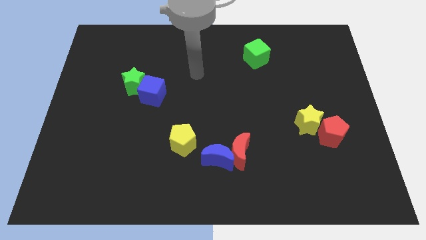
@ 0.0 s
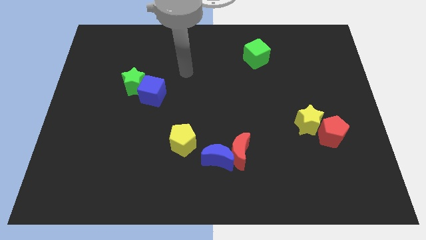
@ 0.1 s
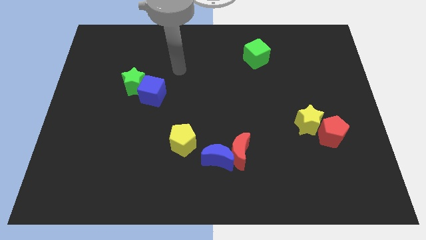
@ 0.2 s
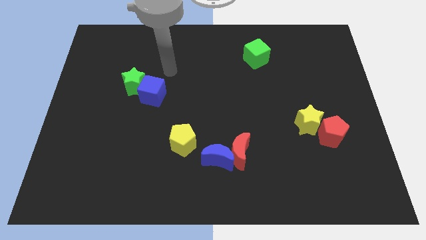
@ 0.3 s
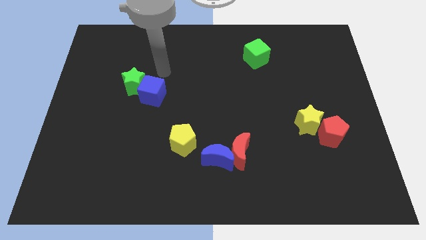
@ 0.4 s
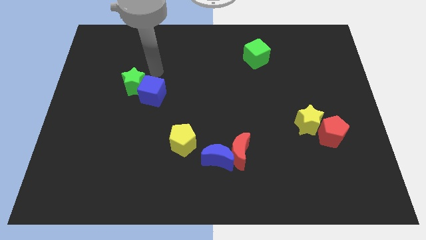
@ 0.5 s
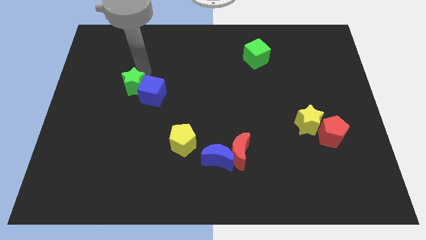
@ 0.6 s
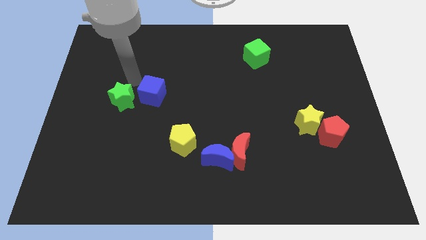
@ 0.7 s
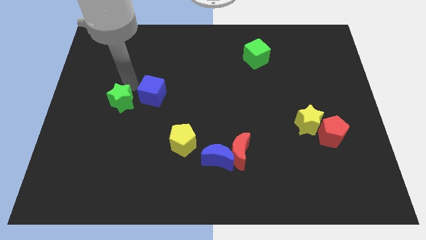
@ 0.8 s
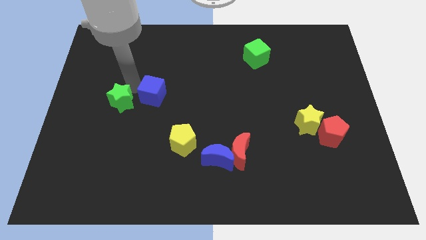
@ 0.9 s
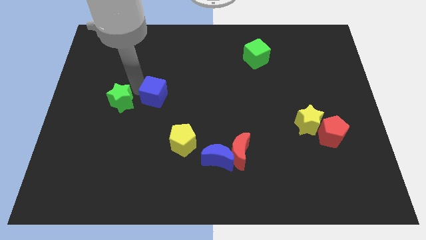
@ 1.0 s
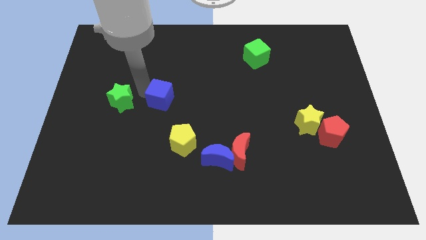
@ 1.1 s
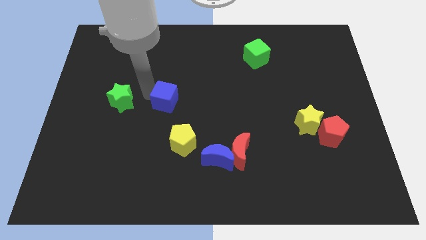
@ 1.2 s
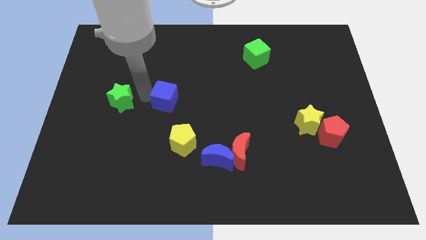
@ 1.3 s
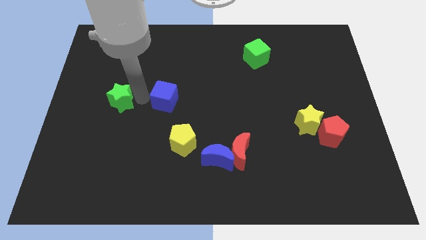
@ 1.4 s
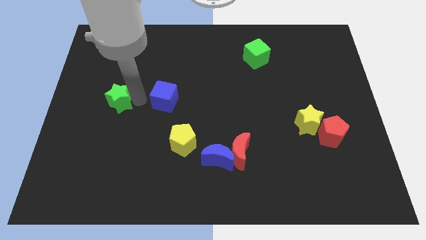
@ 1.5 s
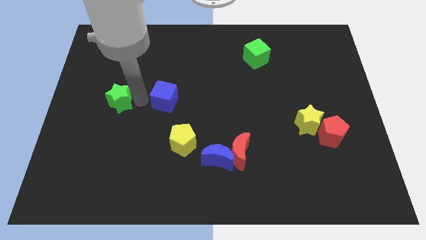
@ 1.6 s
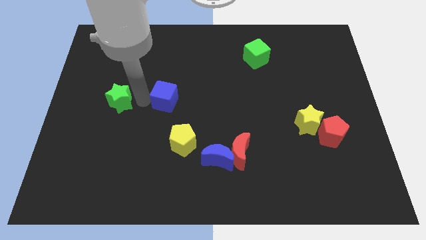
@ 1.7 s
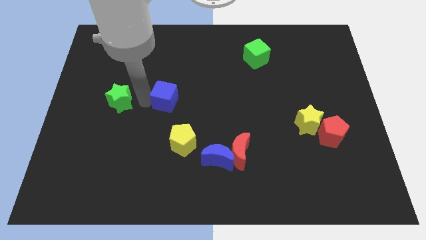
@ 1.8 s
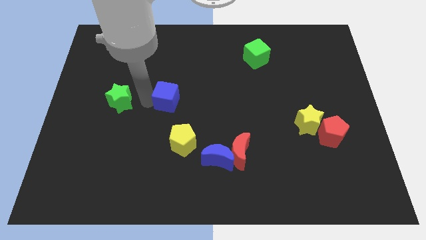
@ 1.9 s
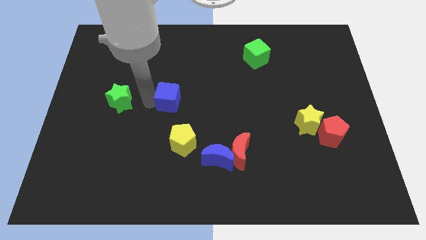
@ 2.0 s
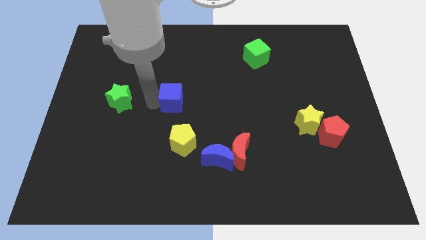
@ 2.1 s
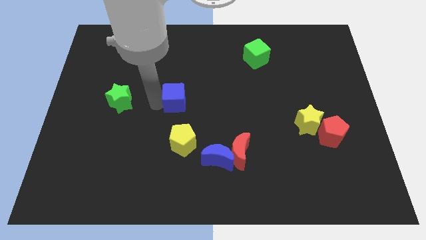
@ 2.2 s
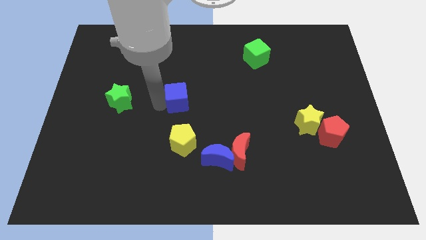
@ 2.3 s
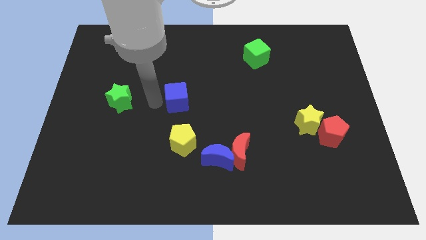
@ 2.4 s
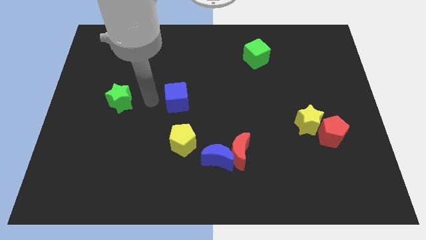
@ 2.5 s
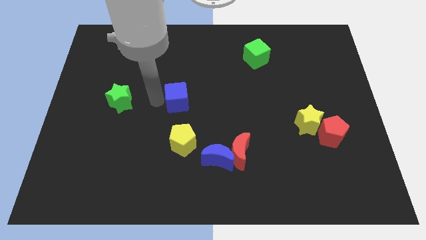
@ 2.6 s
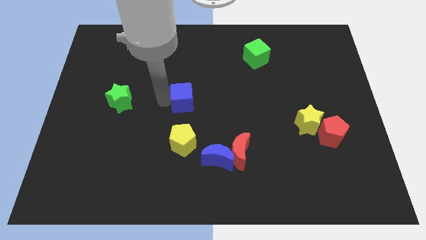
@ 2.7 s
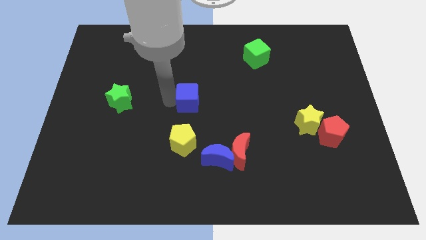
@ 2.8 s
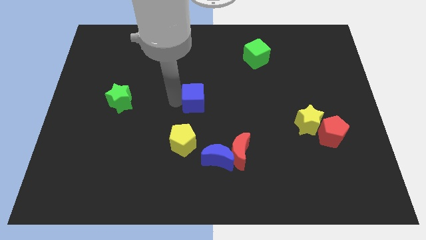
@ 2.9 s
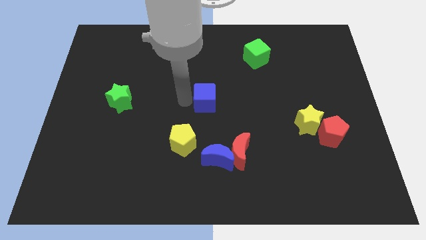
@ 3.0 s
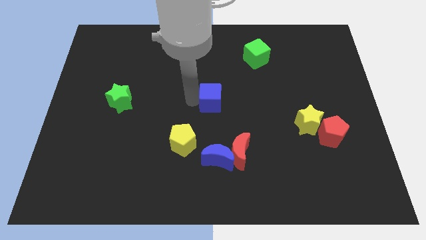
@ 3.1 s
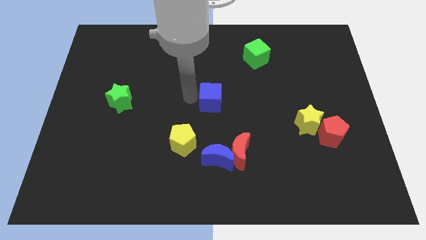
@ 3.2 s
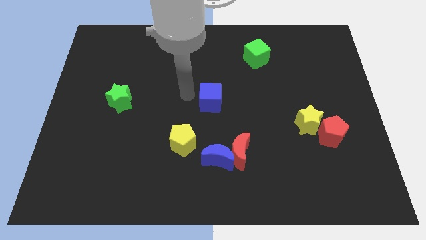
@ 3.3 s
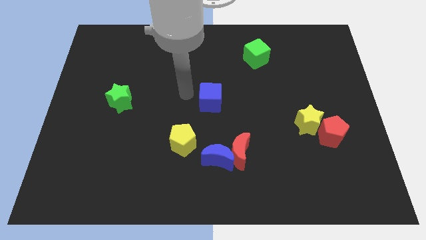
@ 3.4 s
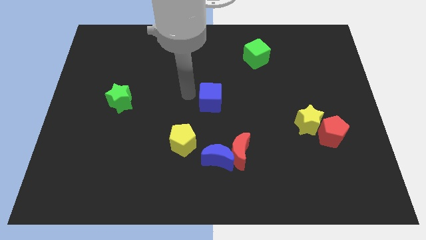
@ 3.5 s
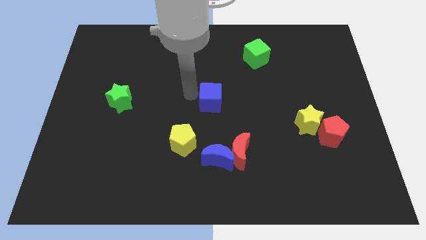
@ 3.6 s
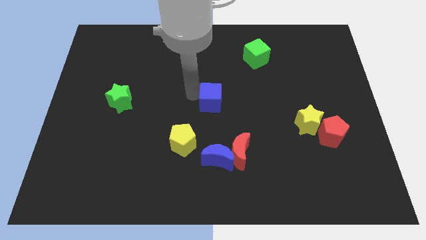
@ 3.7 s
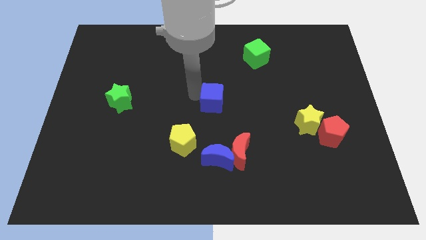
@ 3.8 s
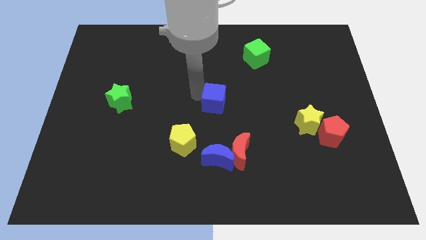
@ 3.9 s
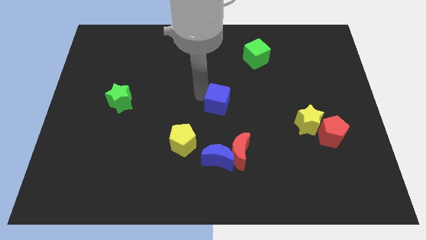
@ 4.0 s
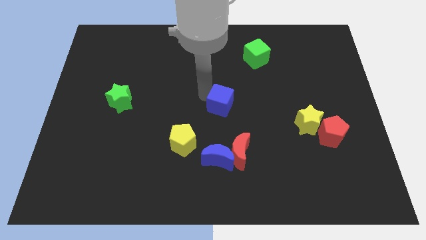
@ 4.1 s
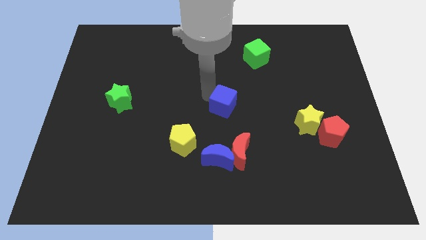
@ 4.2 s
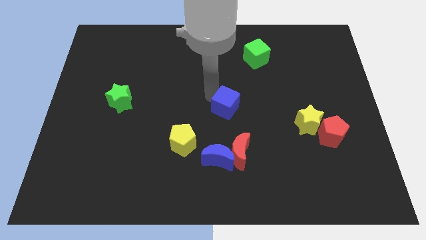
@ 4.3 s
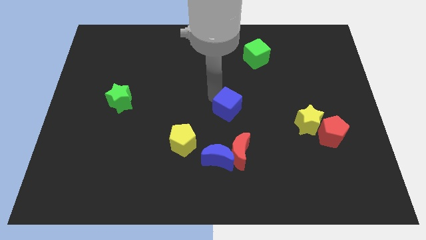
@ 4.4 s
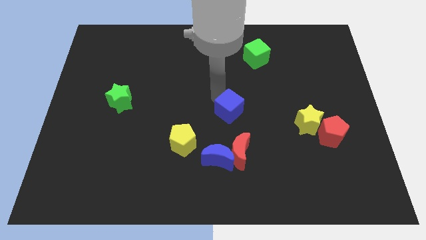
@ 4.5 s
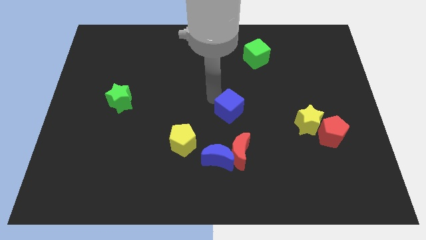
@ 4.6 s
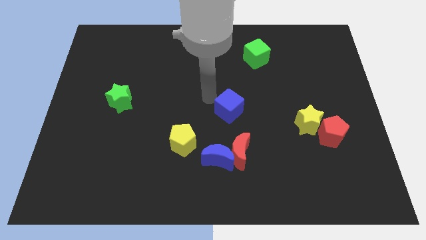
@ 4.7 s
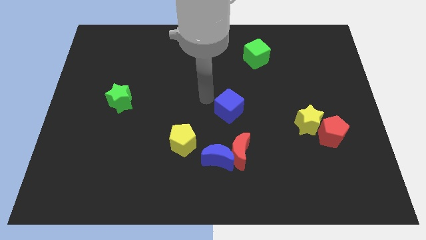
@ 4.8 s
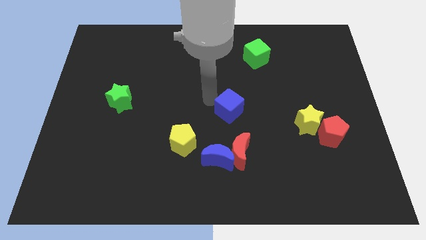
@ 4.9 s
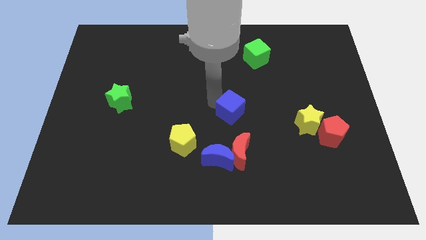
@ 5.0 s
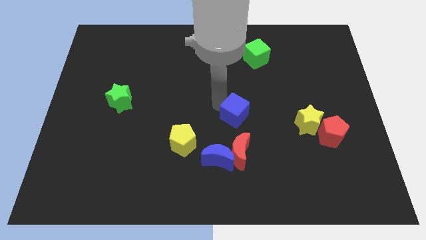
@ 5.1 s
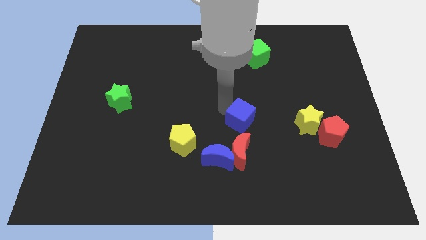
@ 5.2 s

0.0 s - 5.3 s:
push the blue cube left of the yellow star

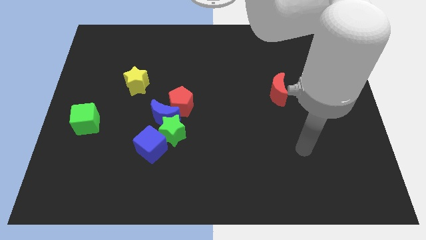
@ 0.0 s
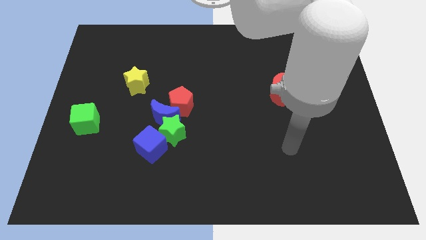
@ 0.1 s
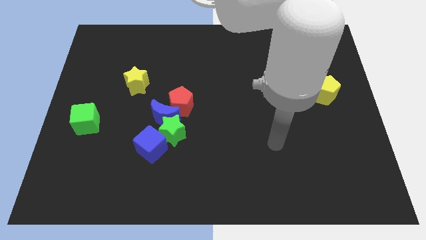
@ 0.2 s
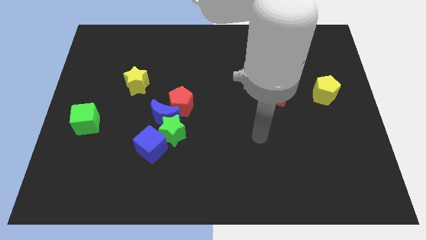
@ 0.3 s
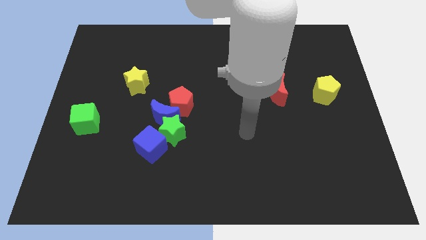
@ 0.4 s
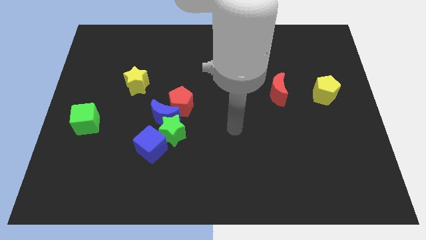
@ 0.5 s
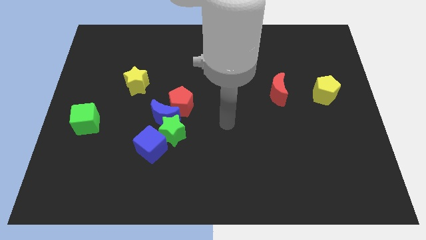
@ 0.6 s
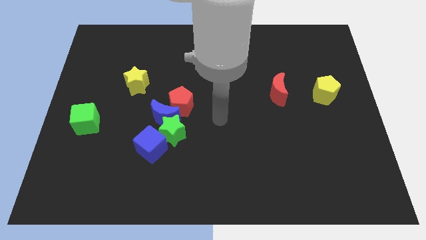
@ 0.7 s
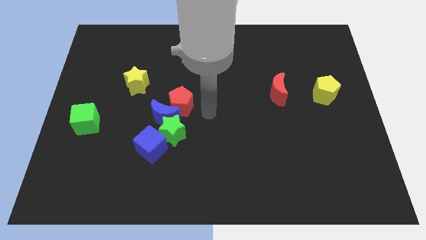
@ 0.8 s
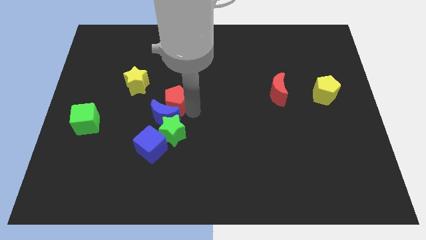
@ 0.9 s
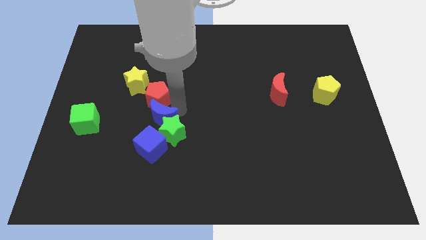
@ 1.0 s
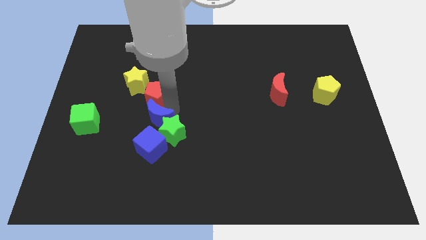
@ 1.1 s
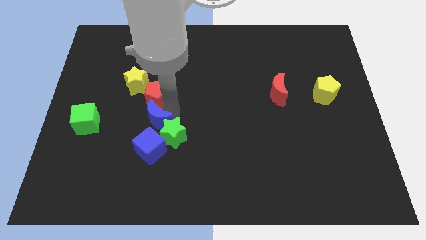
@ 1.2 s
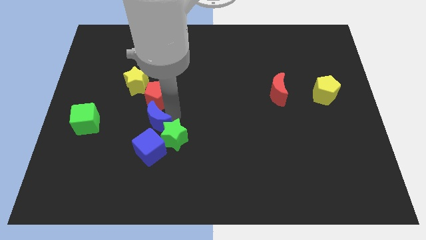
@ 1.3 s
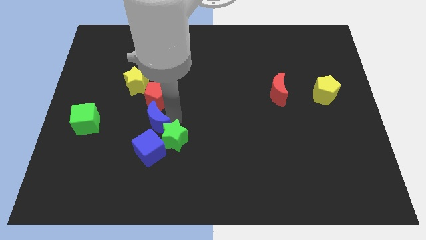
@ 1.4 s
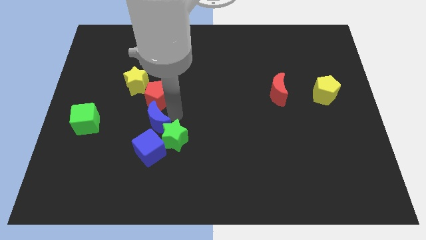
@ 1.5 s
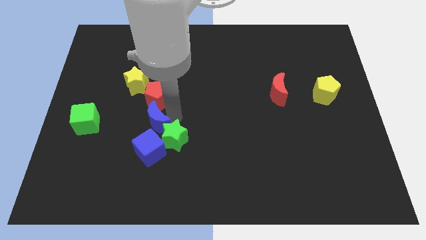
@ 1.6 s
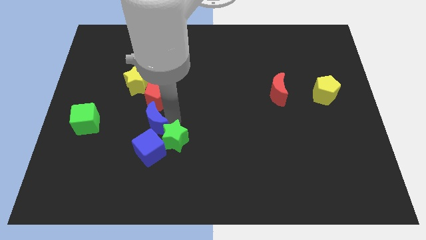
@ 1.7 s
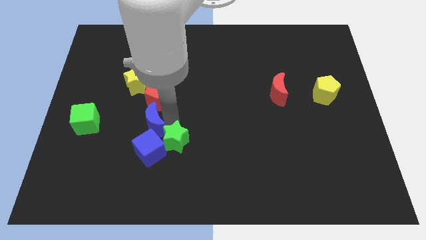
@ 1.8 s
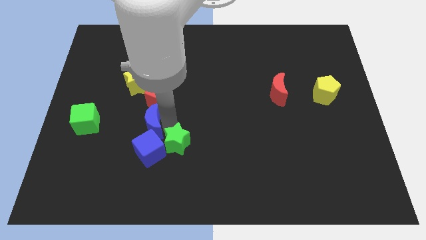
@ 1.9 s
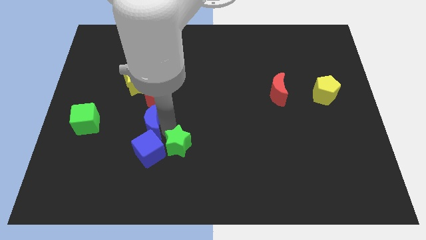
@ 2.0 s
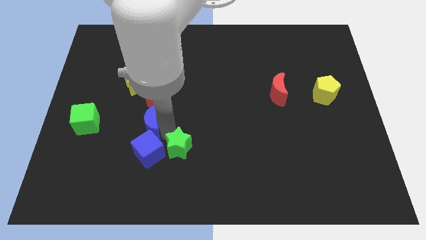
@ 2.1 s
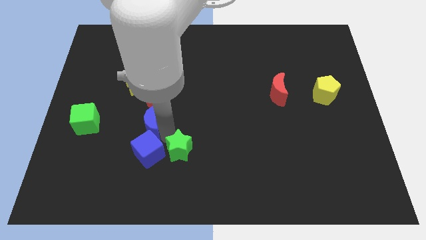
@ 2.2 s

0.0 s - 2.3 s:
move the green star diagonally down and to the right of the blue cube
